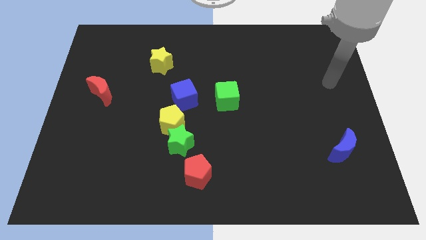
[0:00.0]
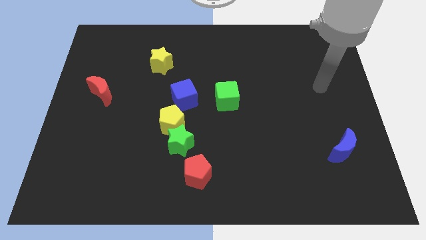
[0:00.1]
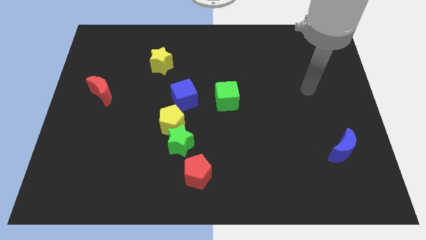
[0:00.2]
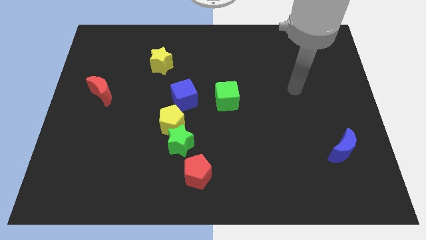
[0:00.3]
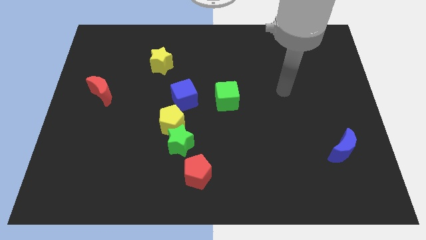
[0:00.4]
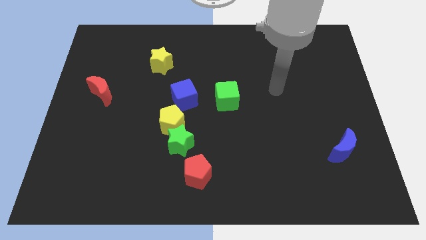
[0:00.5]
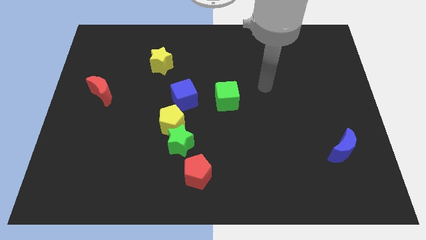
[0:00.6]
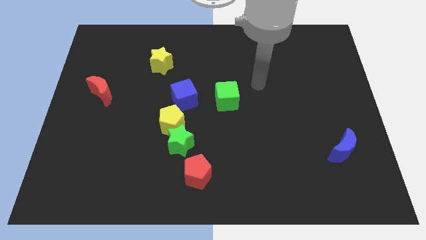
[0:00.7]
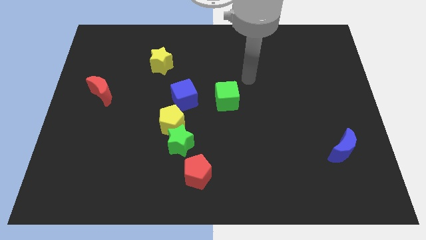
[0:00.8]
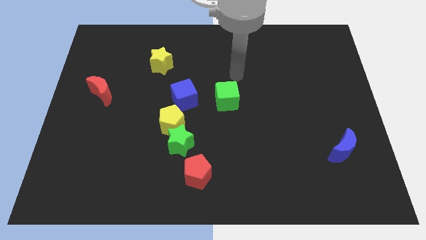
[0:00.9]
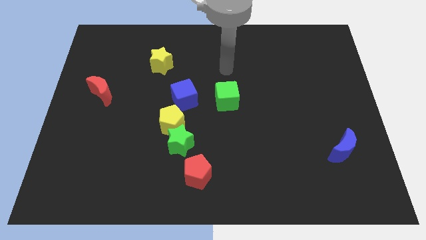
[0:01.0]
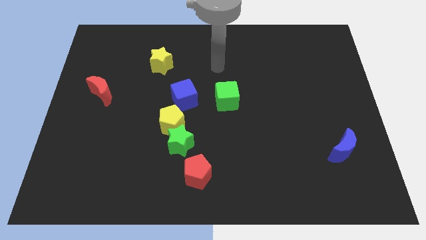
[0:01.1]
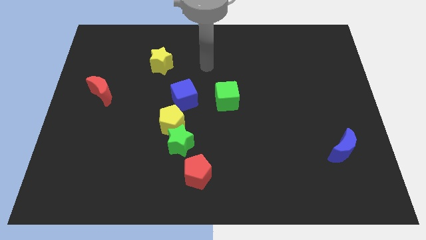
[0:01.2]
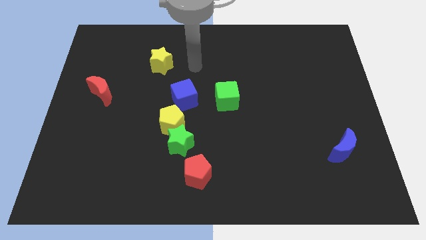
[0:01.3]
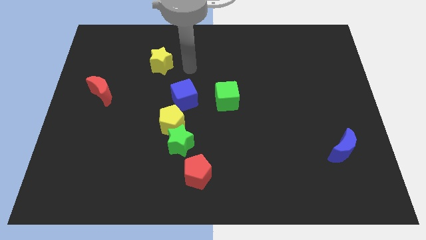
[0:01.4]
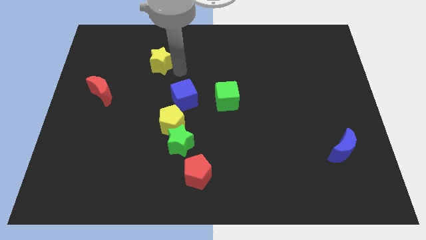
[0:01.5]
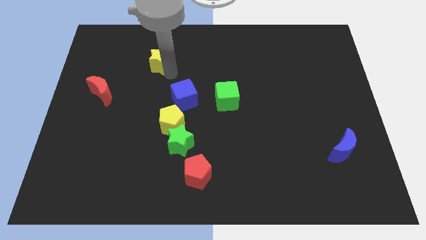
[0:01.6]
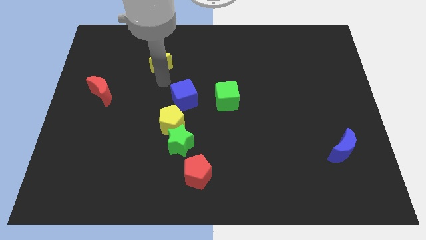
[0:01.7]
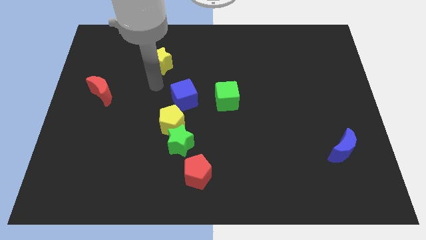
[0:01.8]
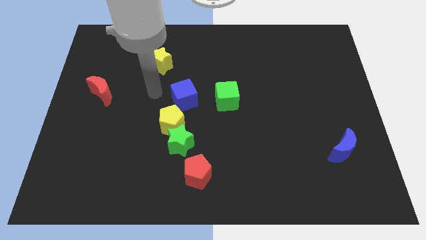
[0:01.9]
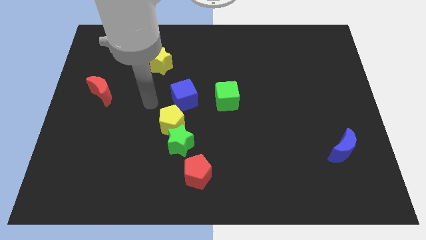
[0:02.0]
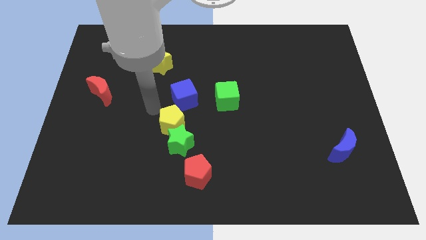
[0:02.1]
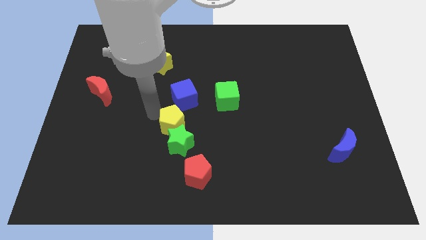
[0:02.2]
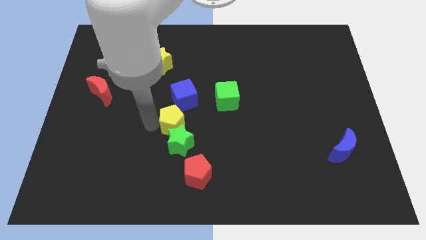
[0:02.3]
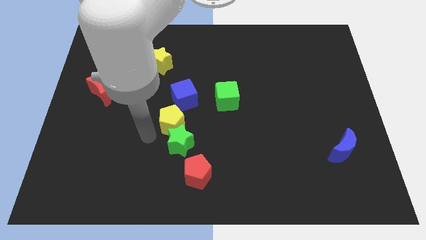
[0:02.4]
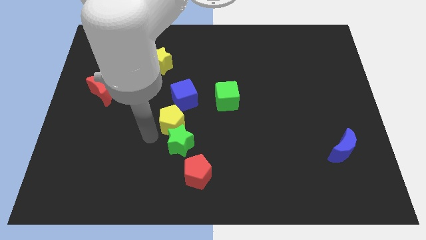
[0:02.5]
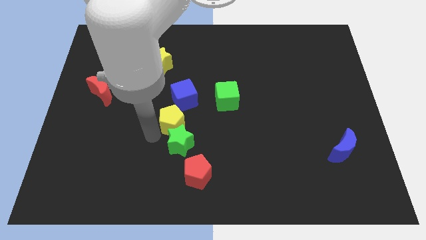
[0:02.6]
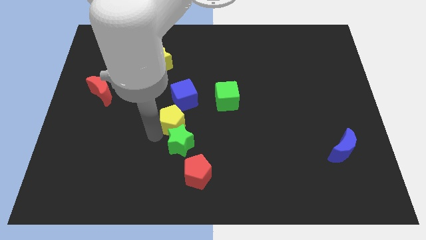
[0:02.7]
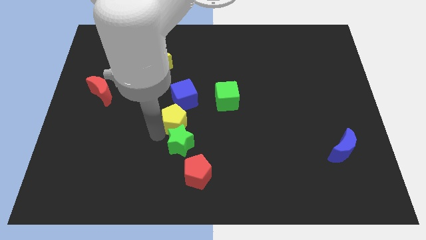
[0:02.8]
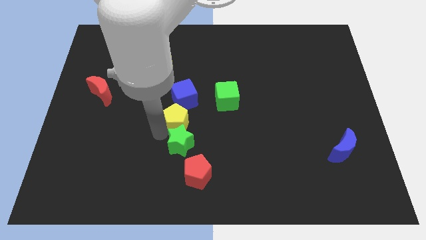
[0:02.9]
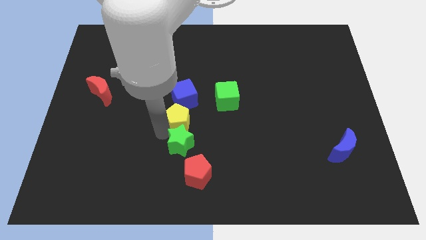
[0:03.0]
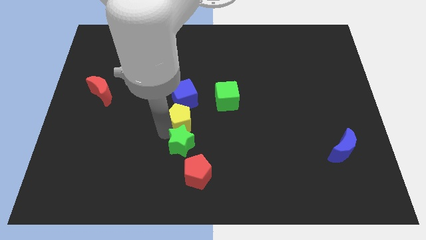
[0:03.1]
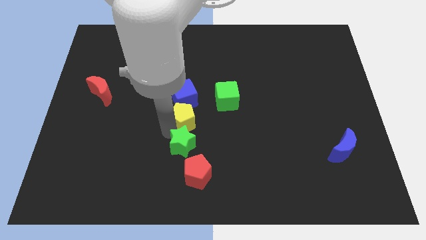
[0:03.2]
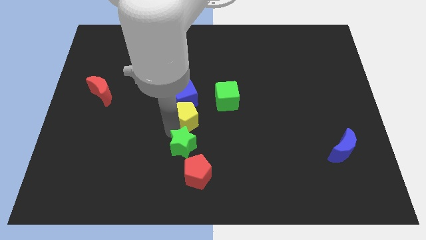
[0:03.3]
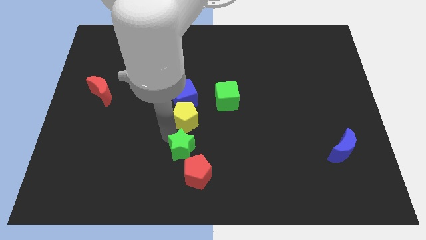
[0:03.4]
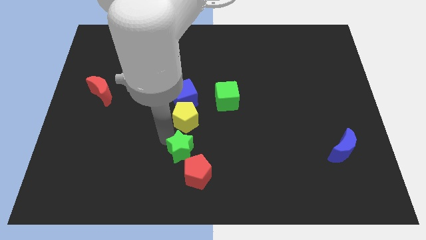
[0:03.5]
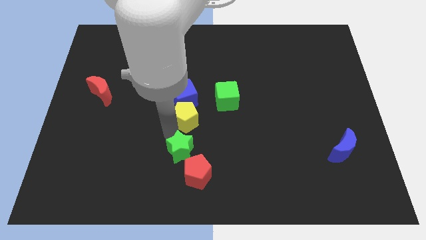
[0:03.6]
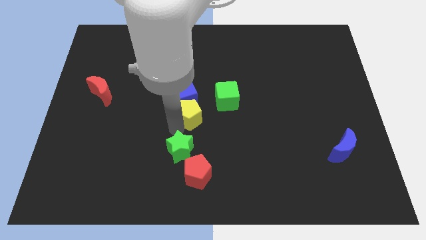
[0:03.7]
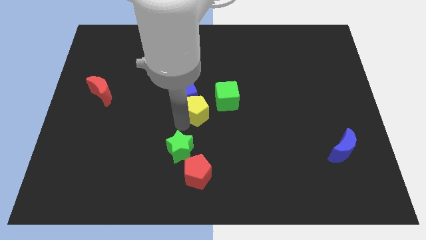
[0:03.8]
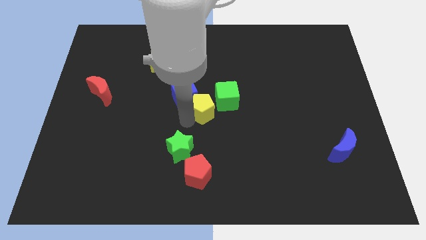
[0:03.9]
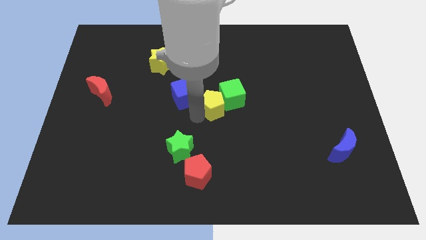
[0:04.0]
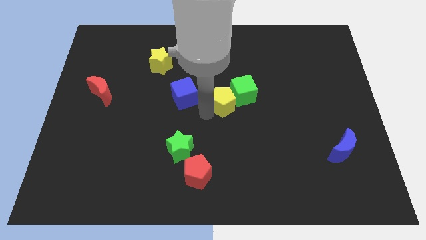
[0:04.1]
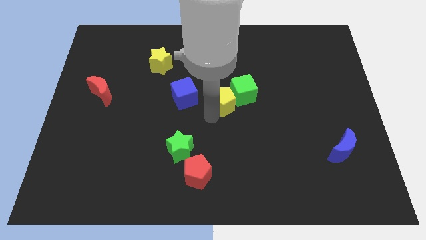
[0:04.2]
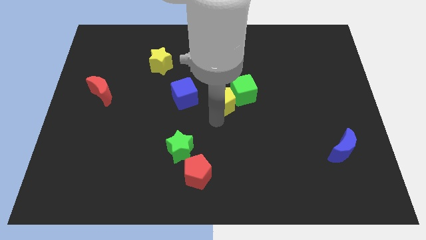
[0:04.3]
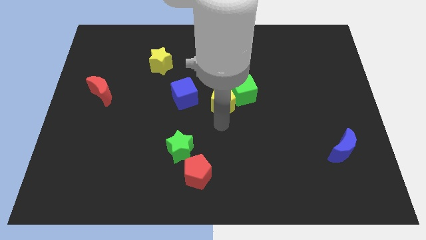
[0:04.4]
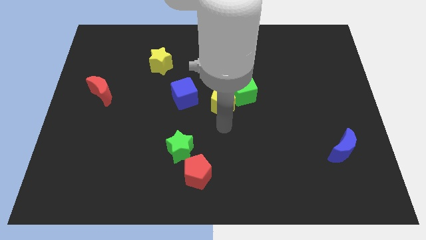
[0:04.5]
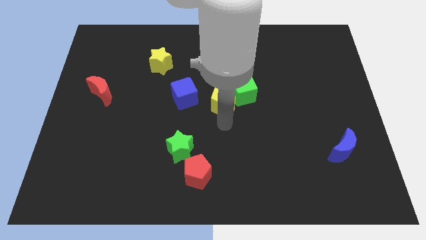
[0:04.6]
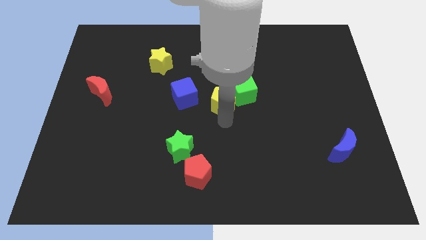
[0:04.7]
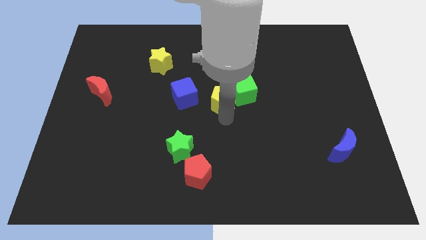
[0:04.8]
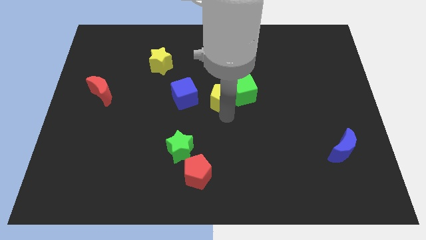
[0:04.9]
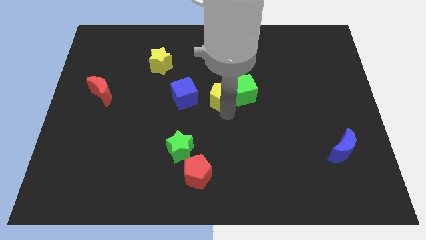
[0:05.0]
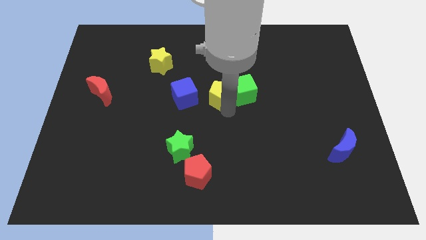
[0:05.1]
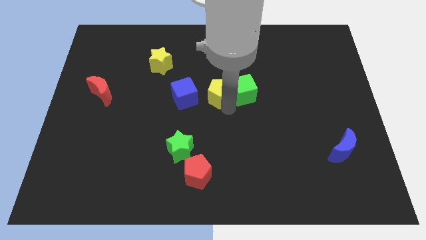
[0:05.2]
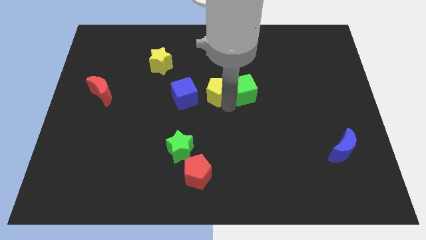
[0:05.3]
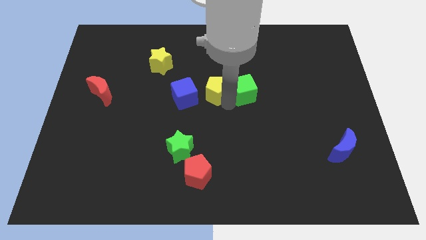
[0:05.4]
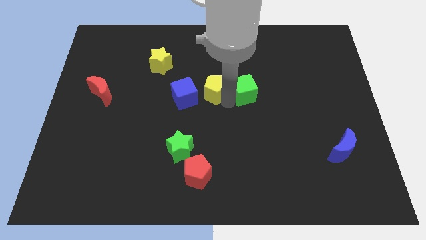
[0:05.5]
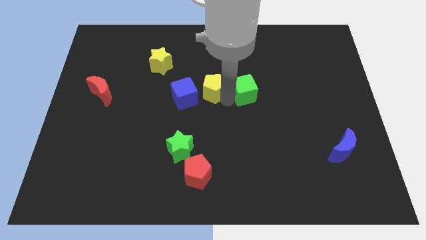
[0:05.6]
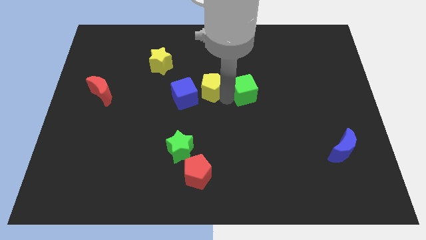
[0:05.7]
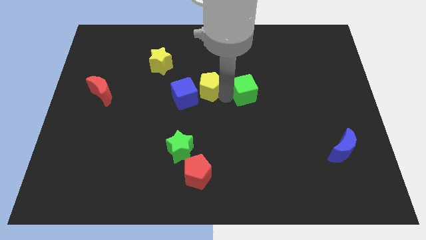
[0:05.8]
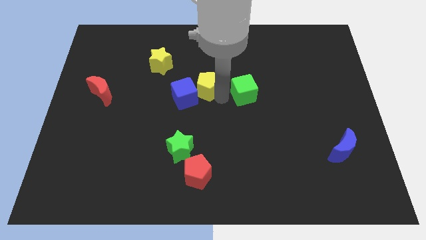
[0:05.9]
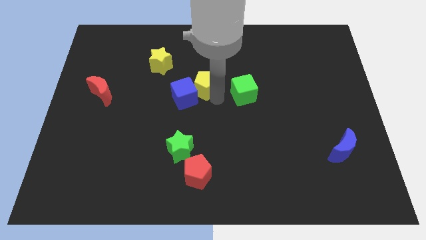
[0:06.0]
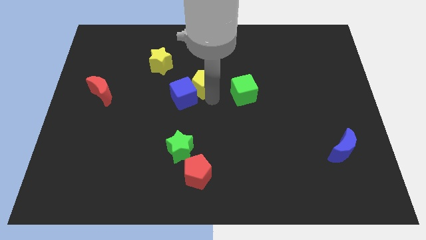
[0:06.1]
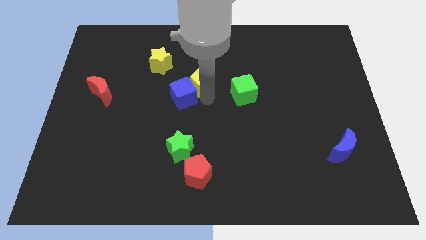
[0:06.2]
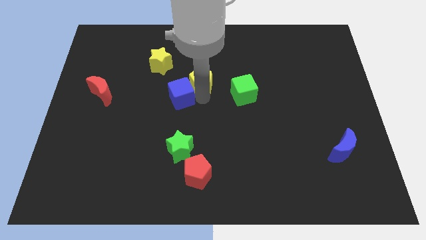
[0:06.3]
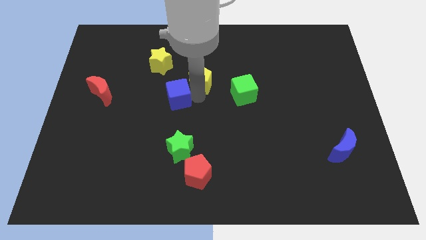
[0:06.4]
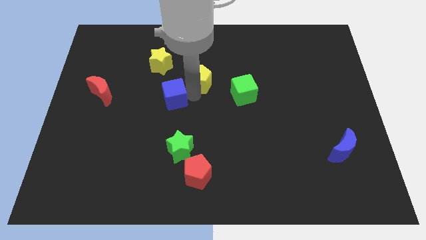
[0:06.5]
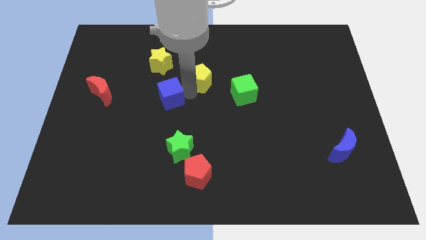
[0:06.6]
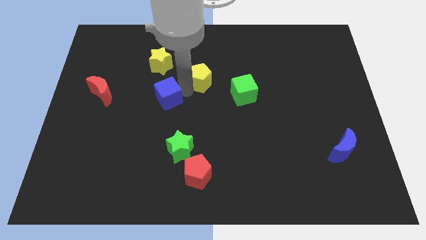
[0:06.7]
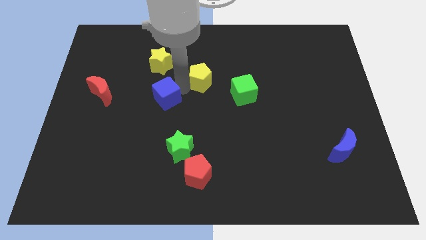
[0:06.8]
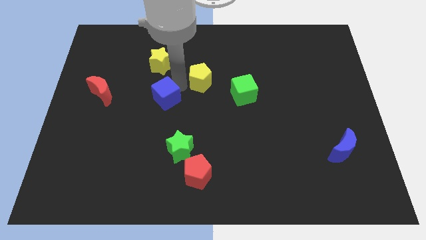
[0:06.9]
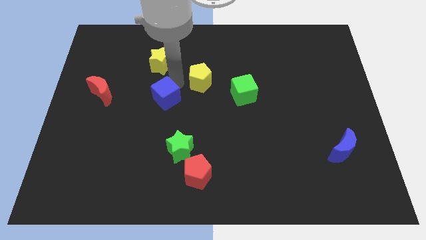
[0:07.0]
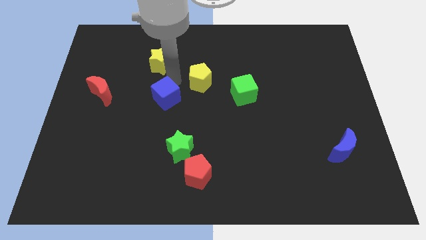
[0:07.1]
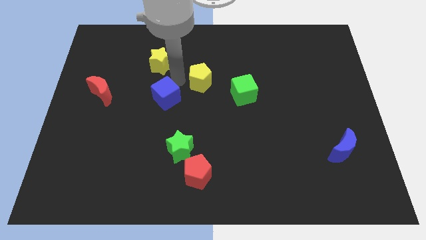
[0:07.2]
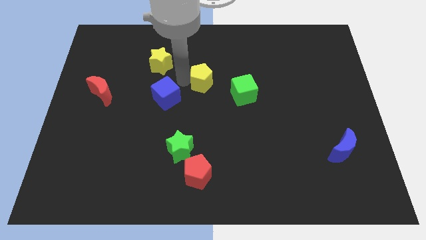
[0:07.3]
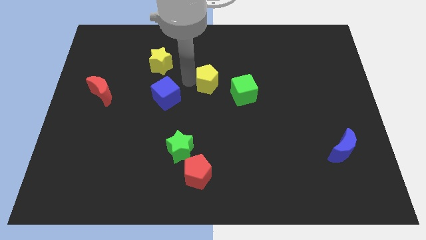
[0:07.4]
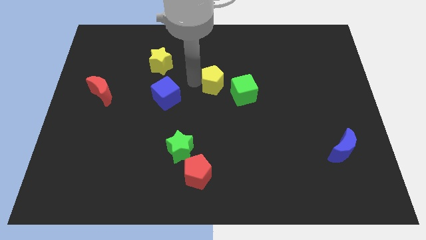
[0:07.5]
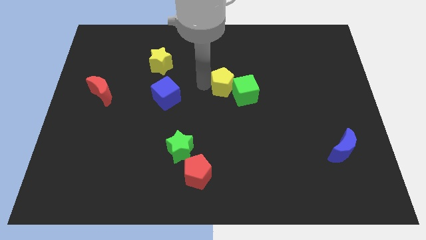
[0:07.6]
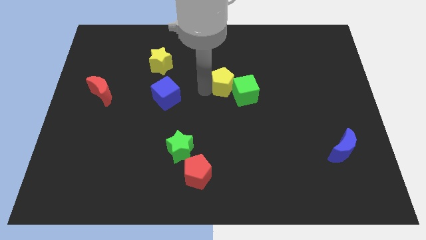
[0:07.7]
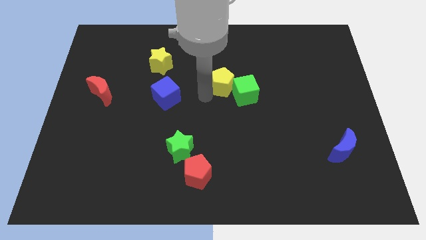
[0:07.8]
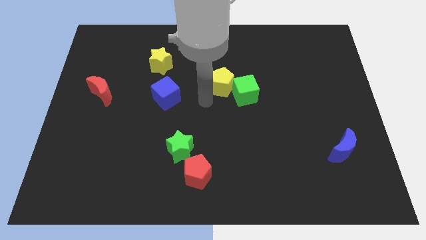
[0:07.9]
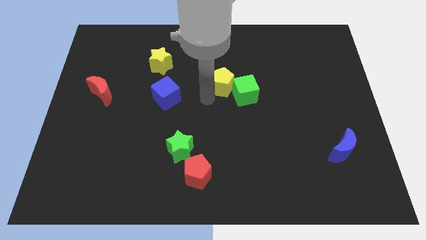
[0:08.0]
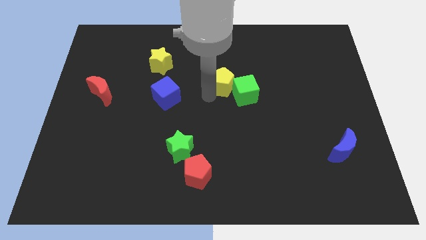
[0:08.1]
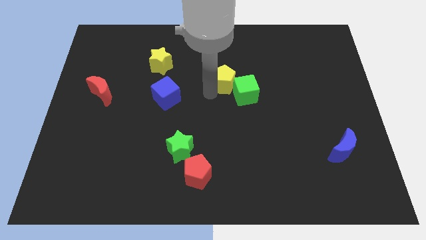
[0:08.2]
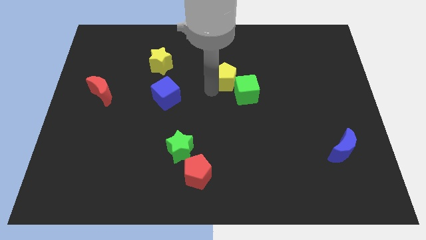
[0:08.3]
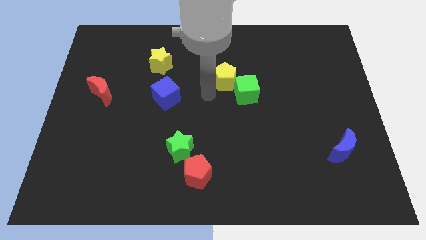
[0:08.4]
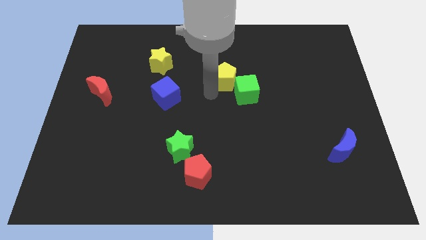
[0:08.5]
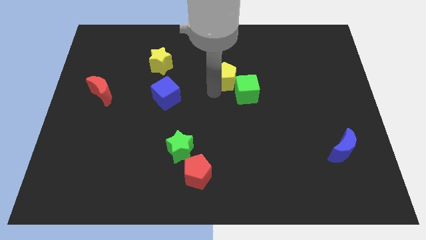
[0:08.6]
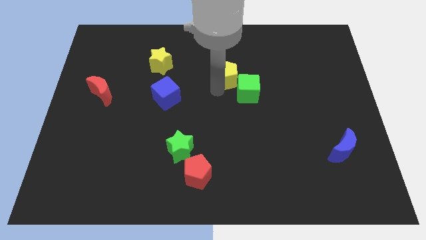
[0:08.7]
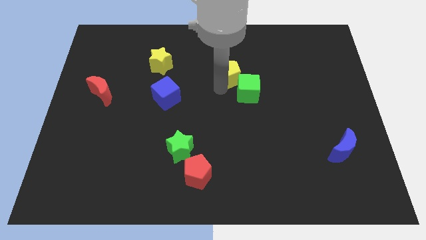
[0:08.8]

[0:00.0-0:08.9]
move the yellow pentagon above the green cube
